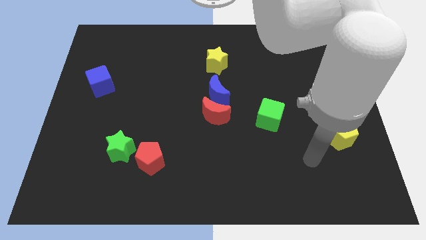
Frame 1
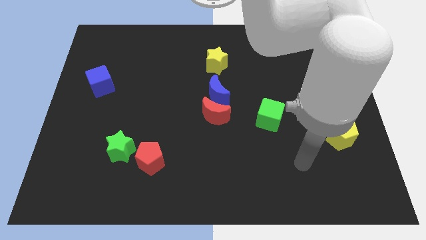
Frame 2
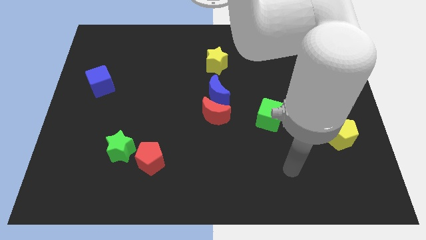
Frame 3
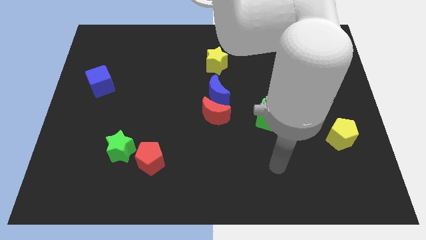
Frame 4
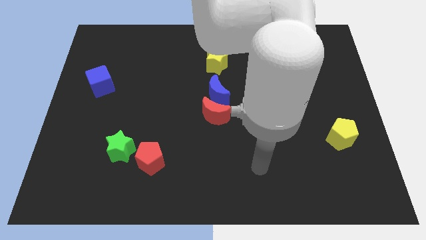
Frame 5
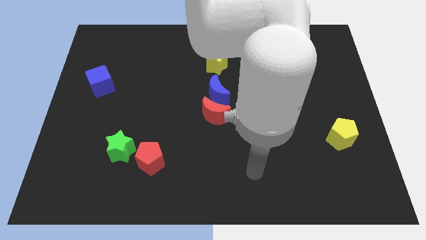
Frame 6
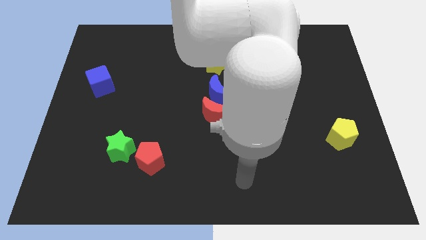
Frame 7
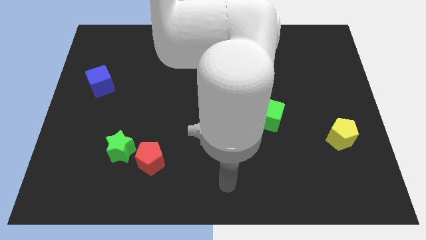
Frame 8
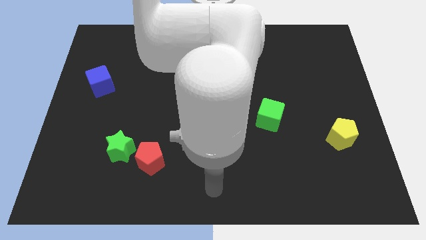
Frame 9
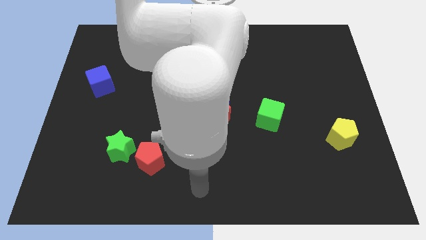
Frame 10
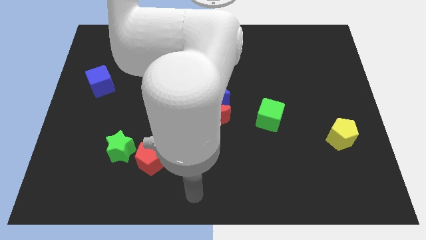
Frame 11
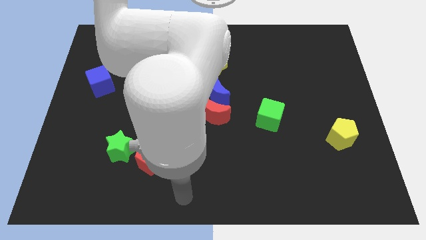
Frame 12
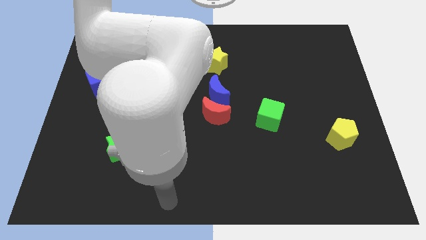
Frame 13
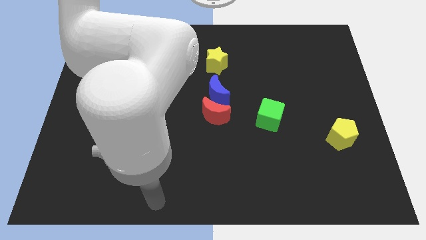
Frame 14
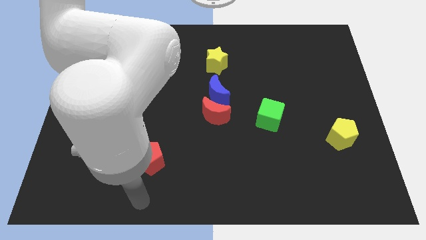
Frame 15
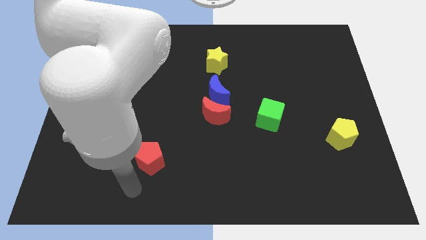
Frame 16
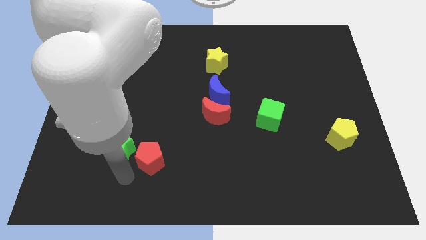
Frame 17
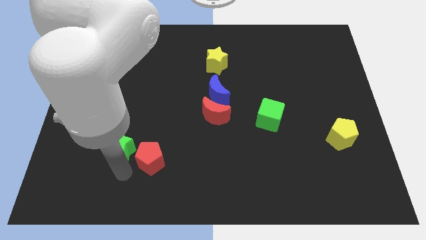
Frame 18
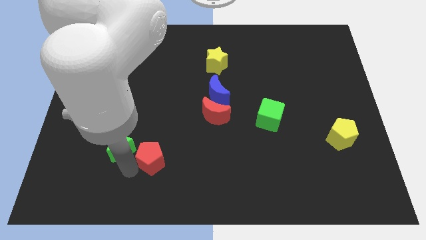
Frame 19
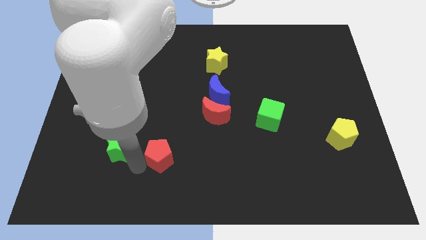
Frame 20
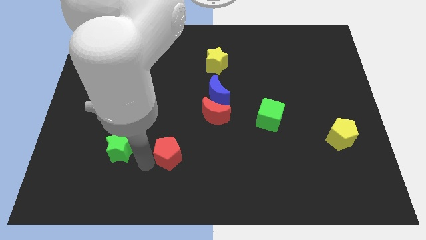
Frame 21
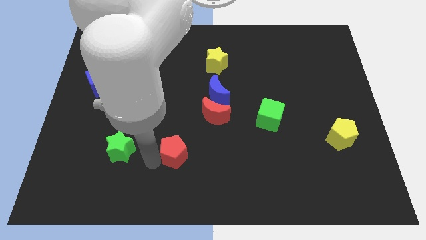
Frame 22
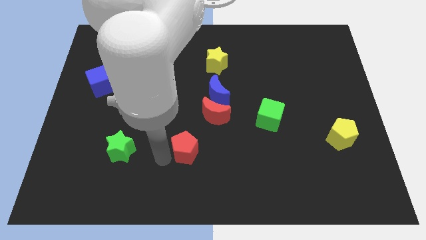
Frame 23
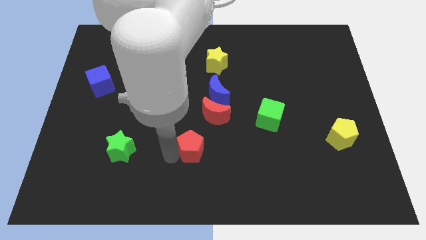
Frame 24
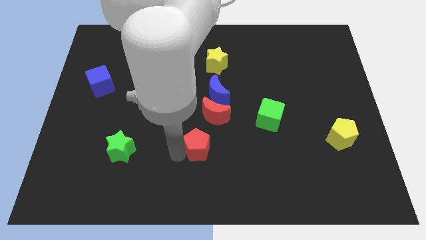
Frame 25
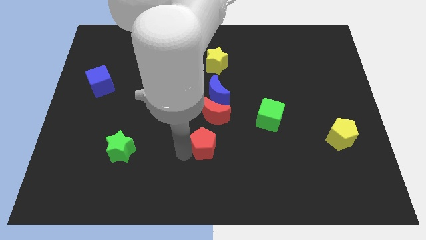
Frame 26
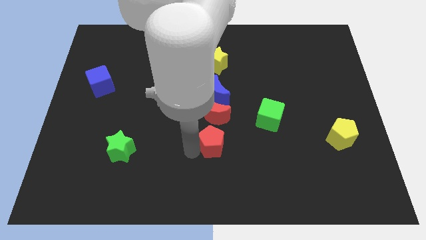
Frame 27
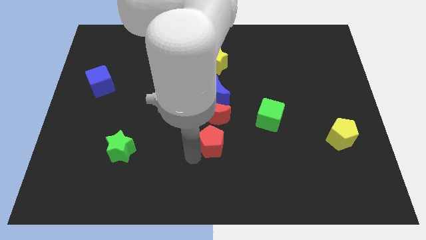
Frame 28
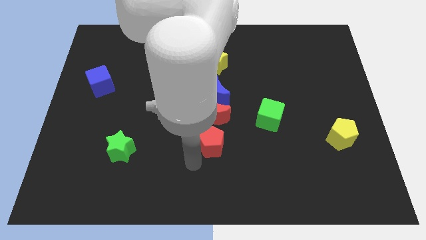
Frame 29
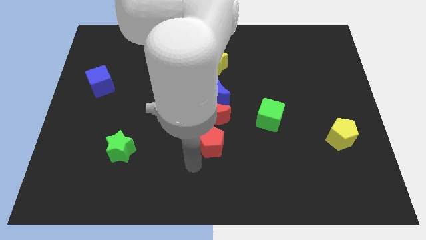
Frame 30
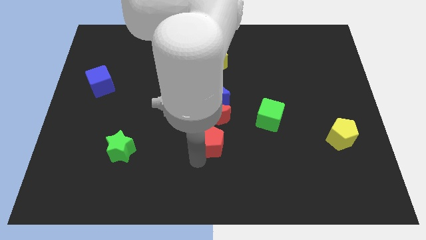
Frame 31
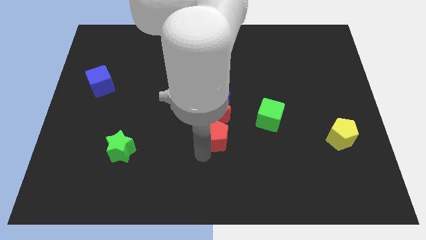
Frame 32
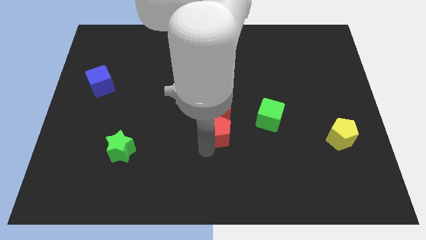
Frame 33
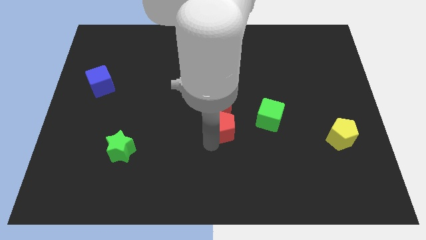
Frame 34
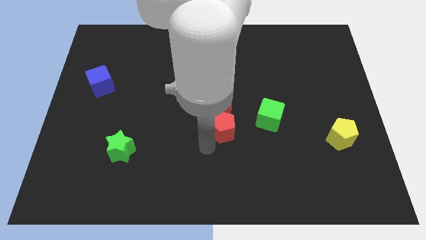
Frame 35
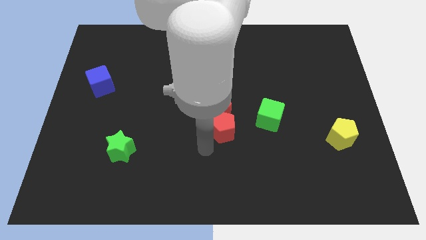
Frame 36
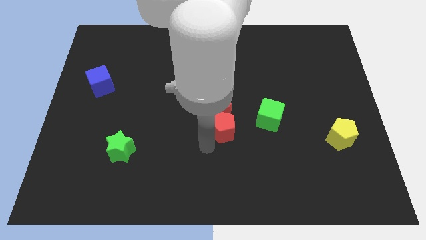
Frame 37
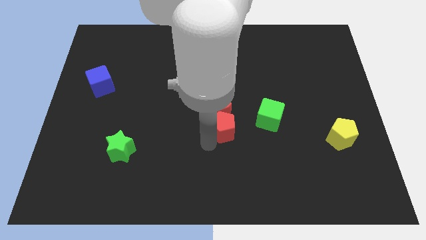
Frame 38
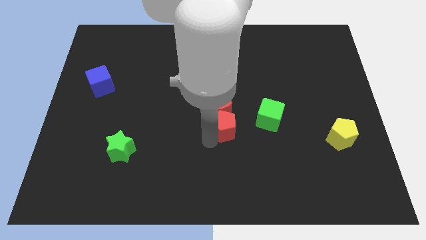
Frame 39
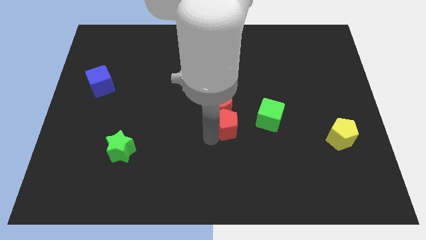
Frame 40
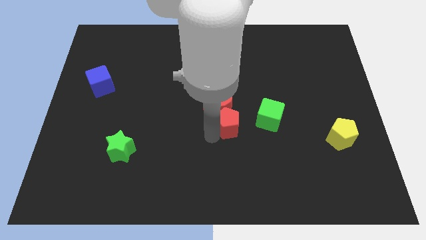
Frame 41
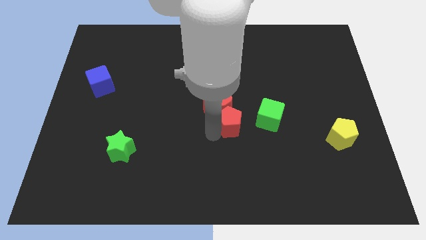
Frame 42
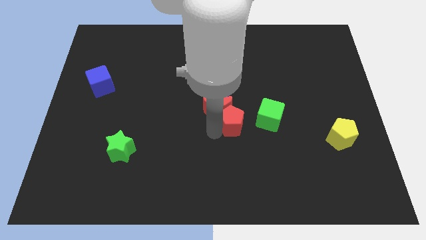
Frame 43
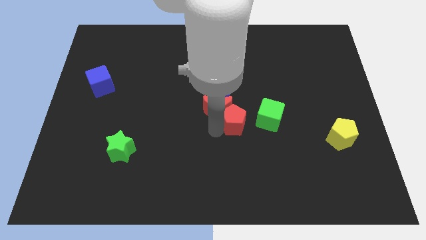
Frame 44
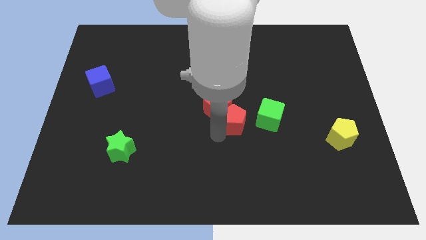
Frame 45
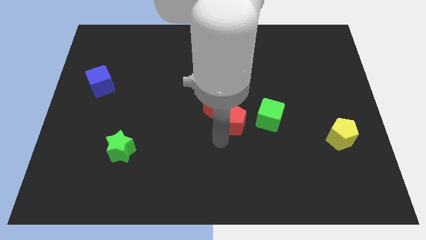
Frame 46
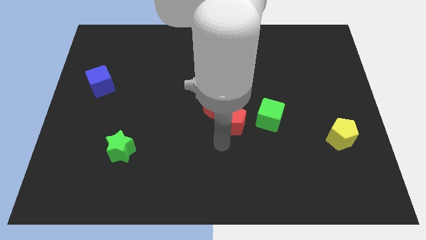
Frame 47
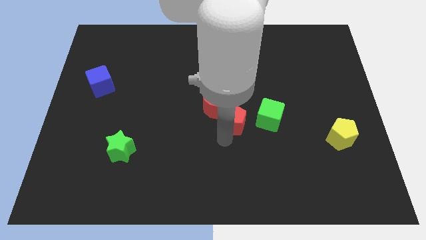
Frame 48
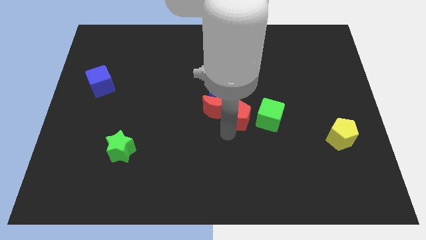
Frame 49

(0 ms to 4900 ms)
slide the red pentagon to the top left side of the green cube

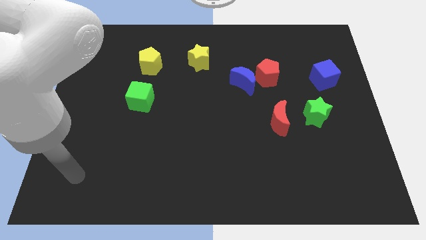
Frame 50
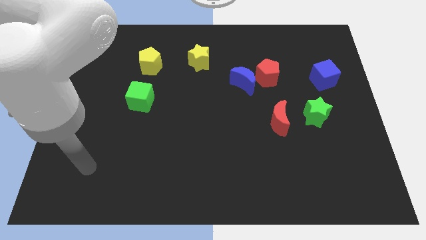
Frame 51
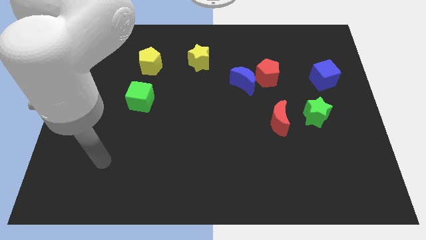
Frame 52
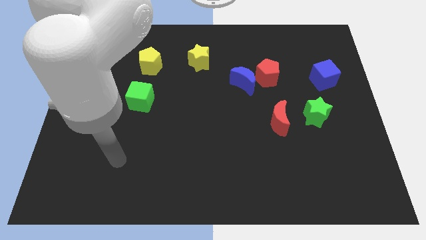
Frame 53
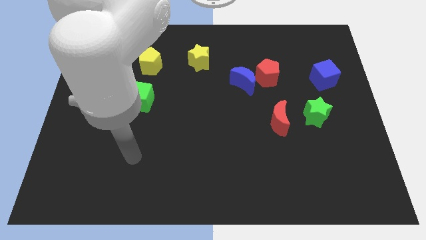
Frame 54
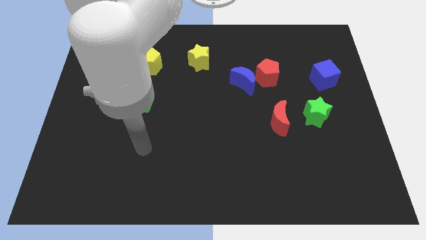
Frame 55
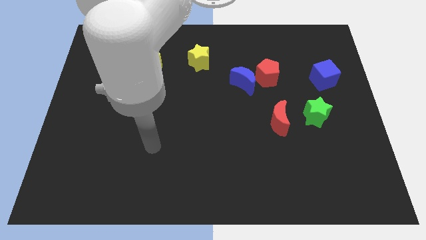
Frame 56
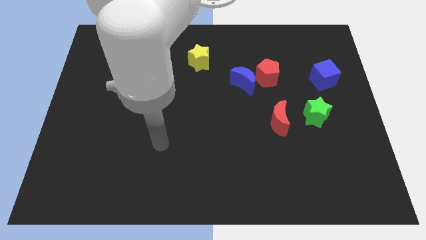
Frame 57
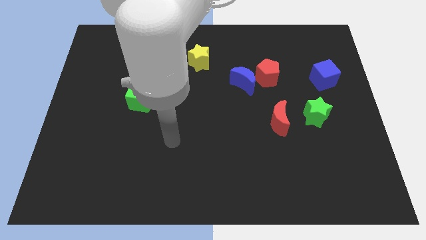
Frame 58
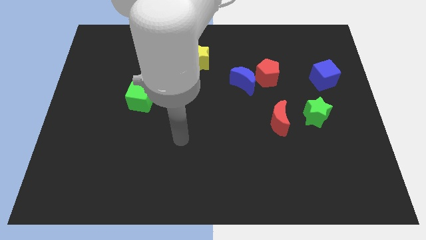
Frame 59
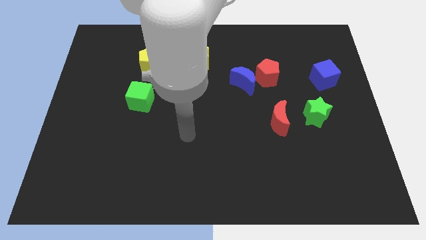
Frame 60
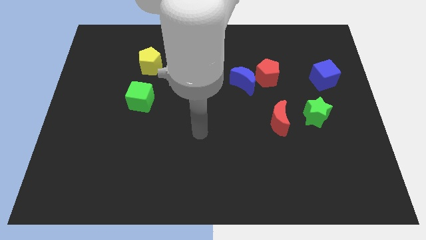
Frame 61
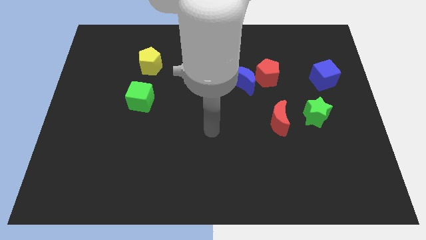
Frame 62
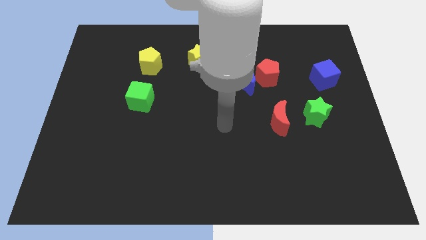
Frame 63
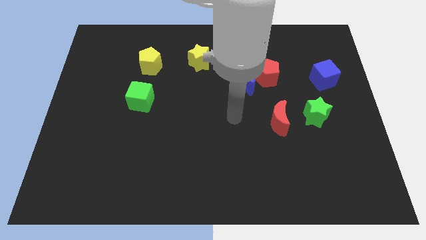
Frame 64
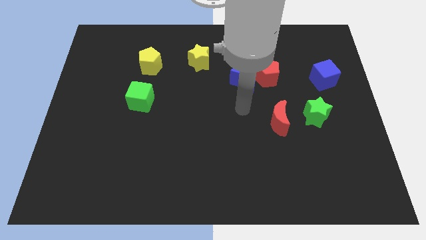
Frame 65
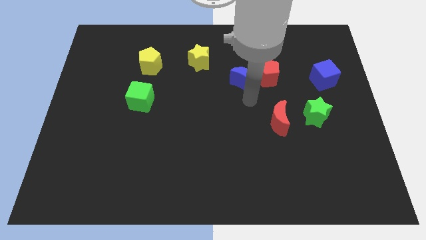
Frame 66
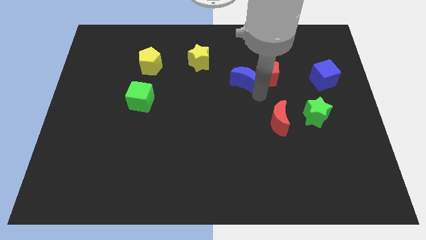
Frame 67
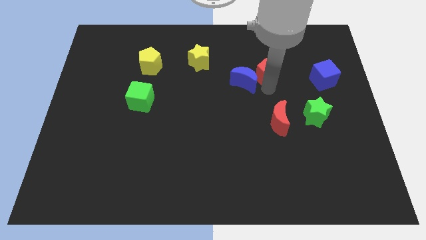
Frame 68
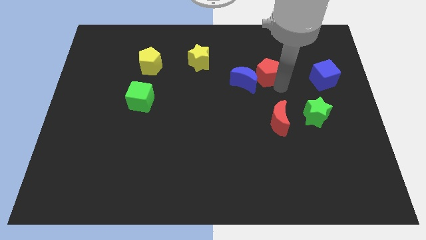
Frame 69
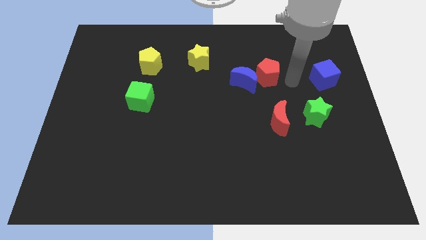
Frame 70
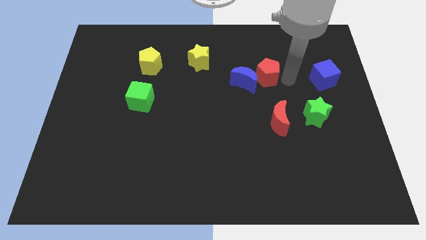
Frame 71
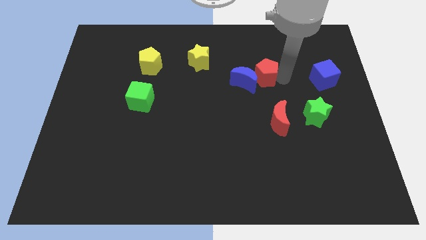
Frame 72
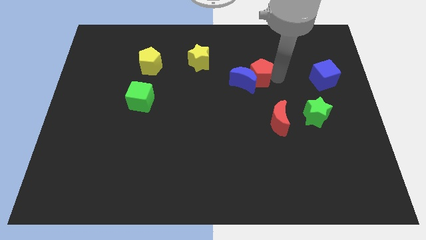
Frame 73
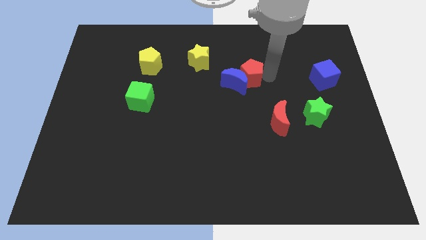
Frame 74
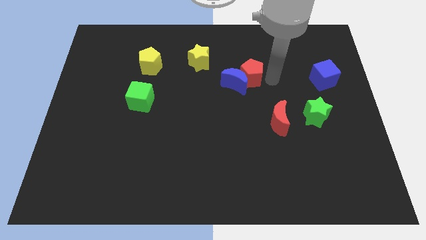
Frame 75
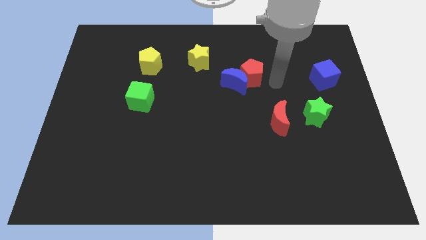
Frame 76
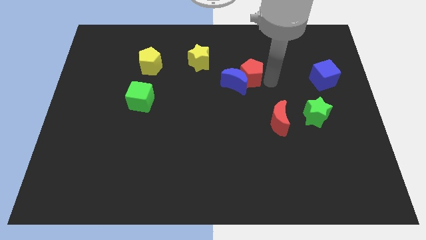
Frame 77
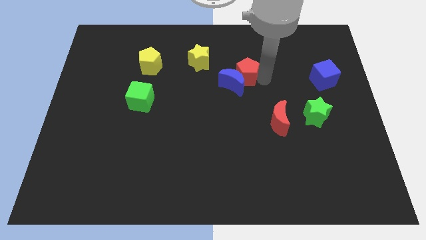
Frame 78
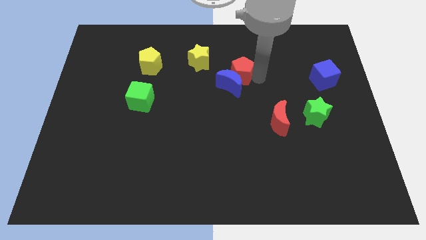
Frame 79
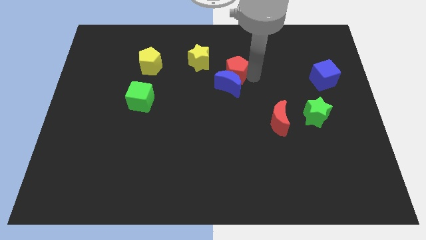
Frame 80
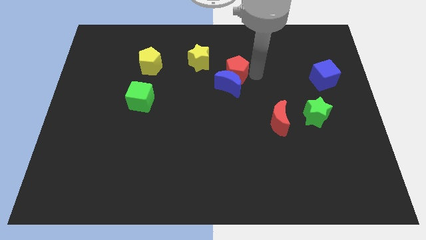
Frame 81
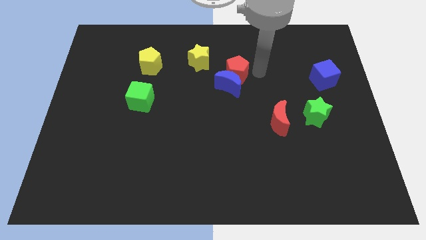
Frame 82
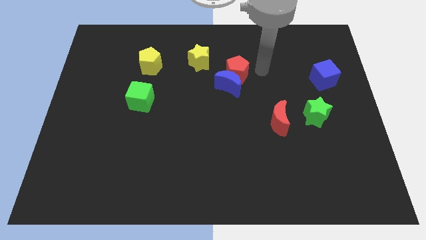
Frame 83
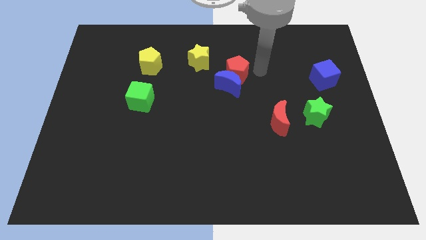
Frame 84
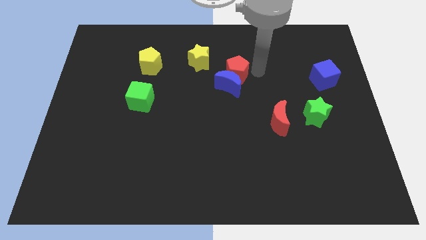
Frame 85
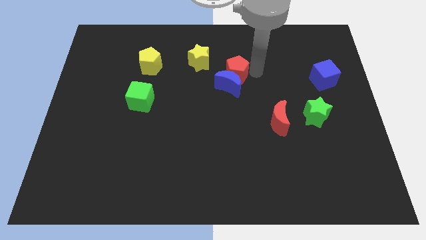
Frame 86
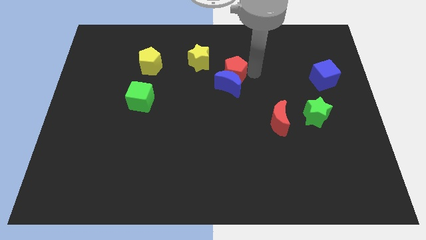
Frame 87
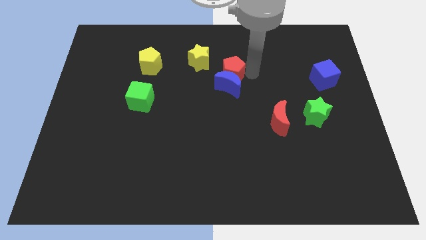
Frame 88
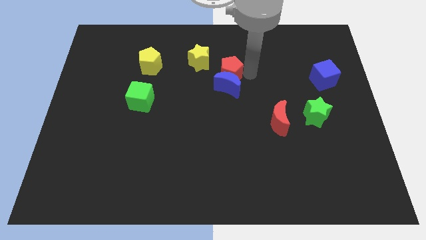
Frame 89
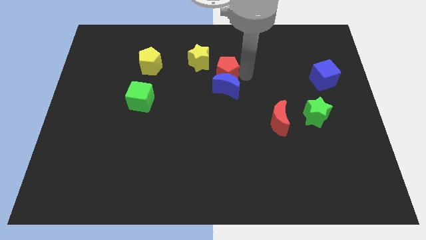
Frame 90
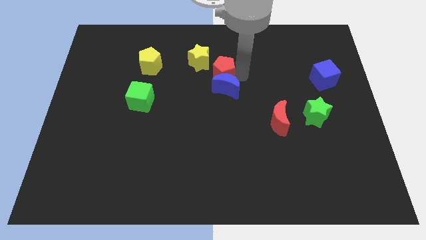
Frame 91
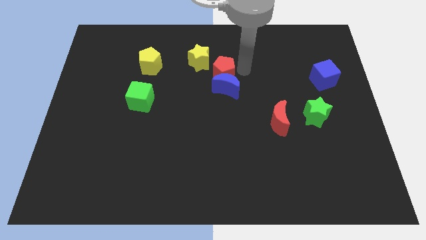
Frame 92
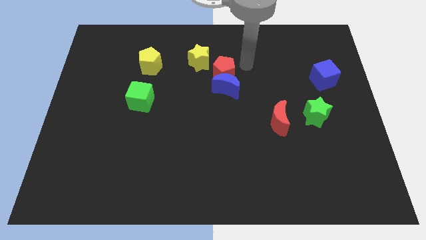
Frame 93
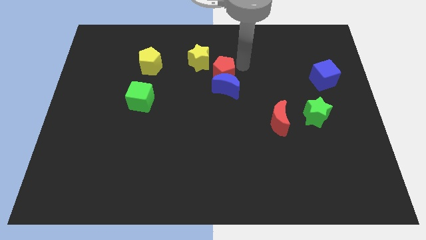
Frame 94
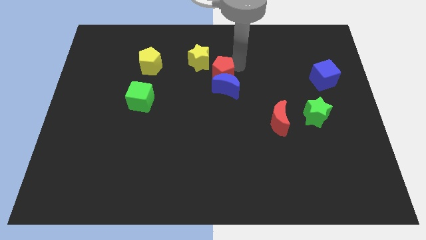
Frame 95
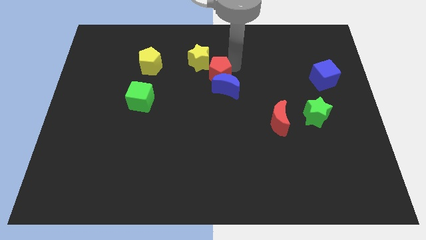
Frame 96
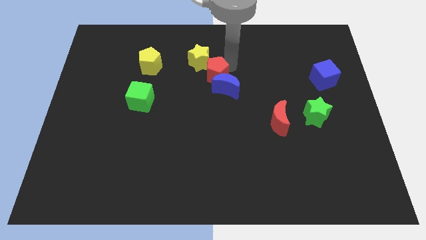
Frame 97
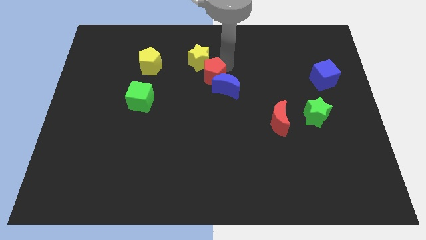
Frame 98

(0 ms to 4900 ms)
slide the red pentagon left of the blue moon
